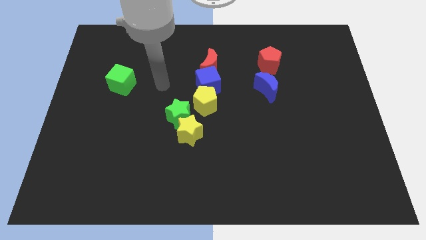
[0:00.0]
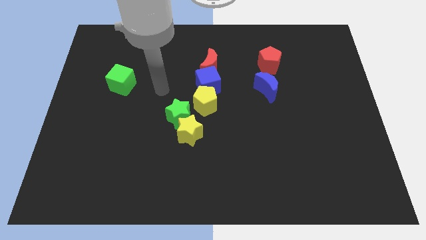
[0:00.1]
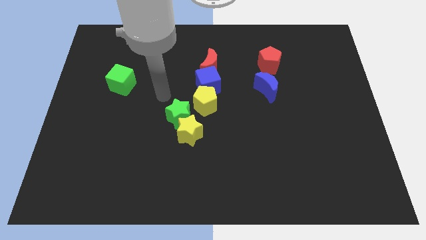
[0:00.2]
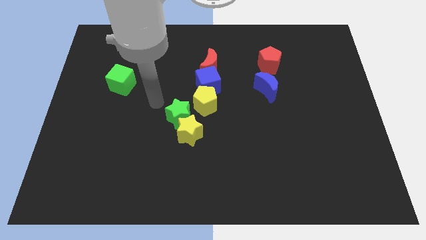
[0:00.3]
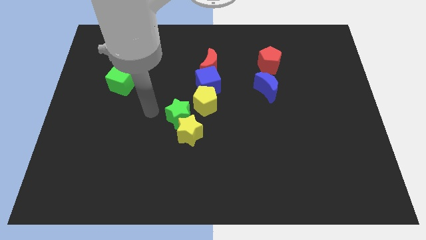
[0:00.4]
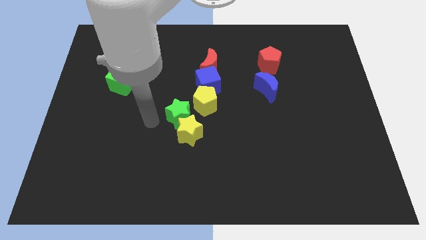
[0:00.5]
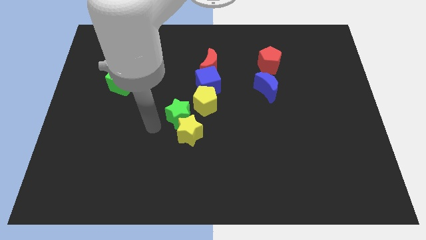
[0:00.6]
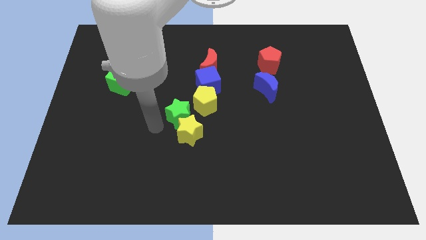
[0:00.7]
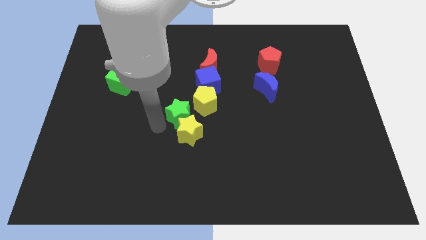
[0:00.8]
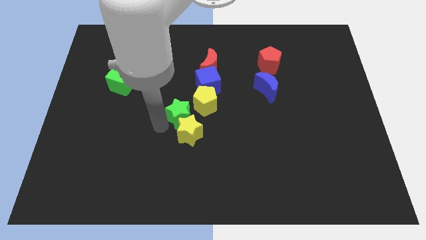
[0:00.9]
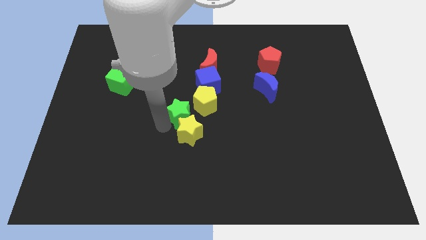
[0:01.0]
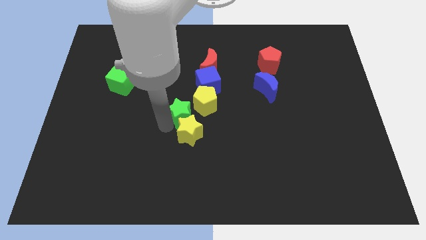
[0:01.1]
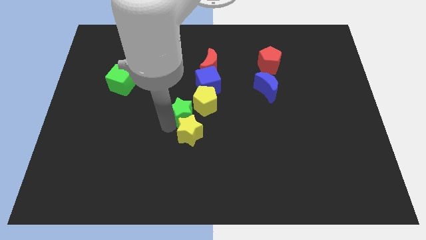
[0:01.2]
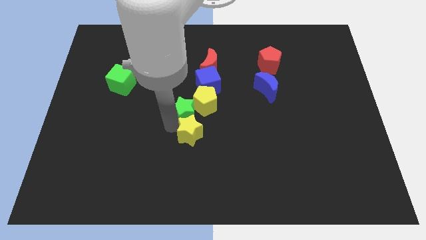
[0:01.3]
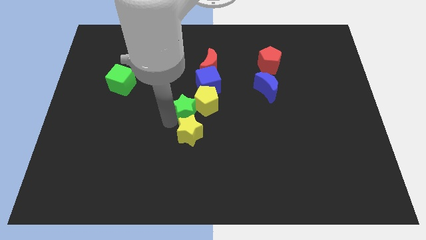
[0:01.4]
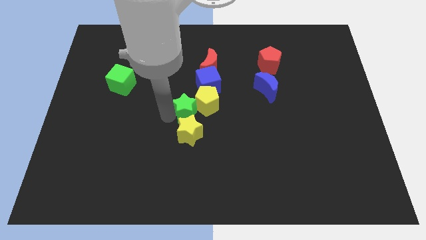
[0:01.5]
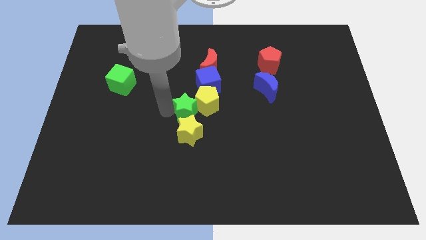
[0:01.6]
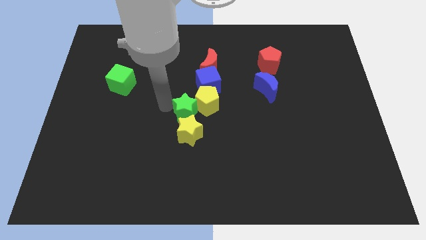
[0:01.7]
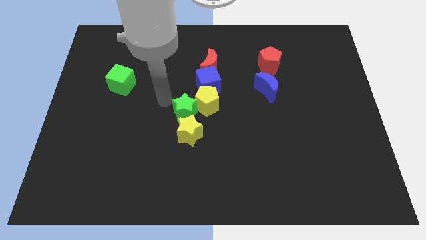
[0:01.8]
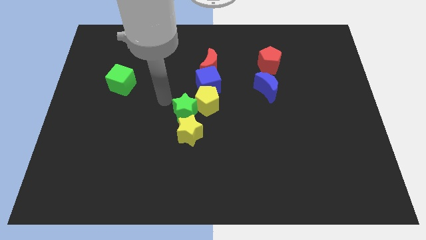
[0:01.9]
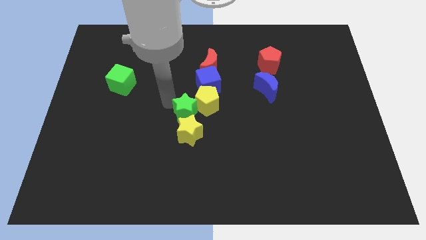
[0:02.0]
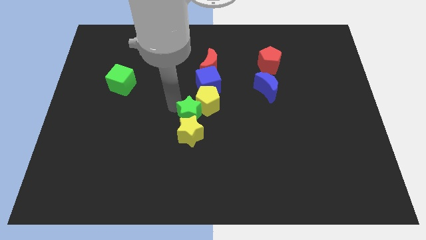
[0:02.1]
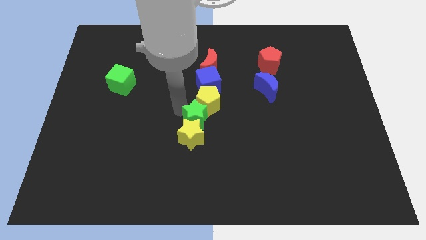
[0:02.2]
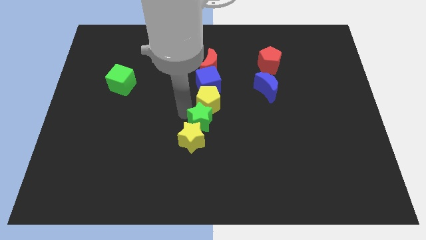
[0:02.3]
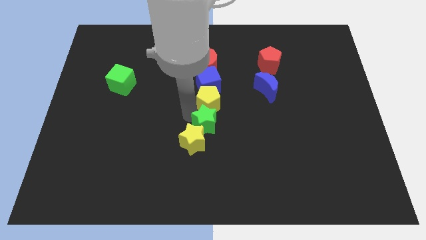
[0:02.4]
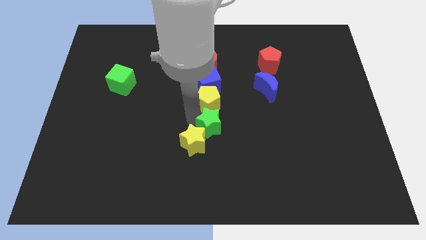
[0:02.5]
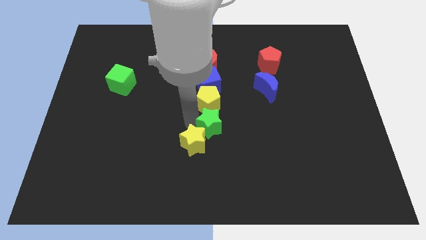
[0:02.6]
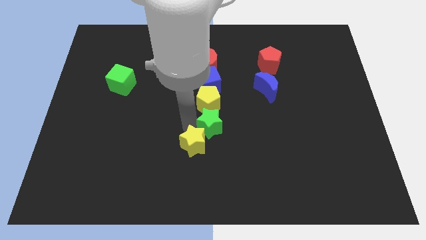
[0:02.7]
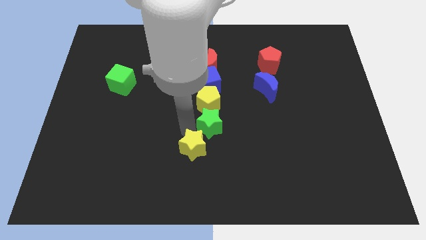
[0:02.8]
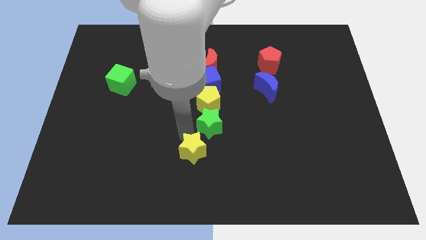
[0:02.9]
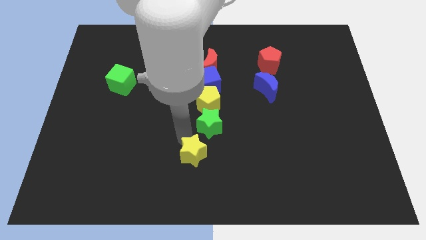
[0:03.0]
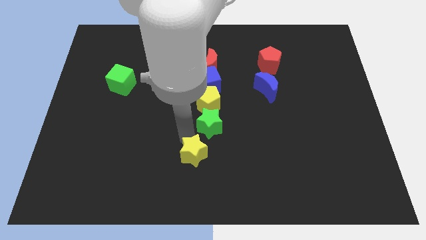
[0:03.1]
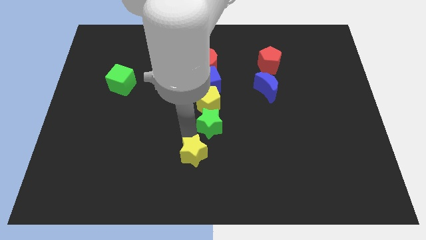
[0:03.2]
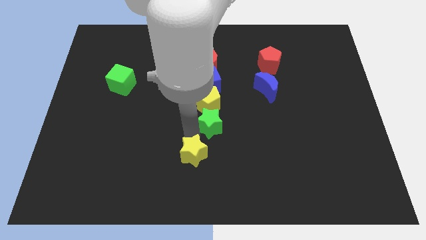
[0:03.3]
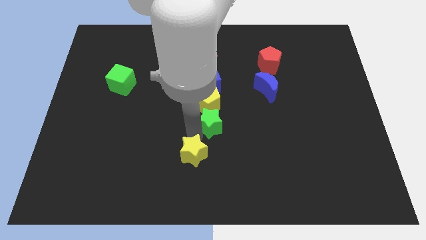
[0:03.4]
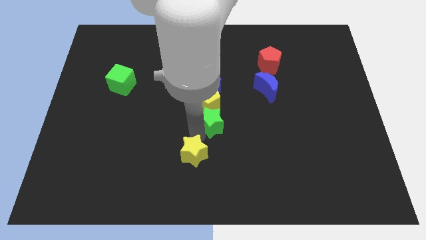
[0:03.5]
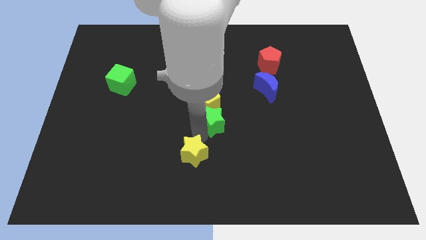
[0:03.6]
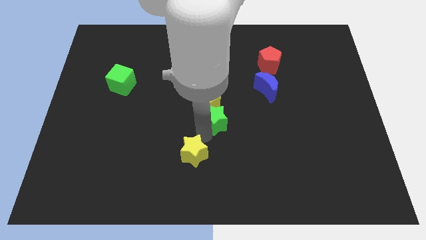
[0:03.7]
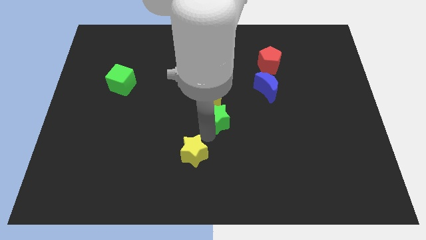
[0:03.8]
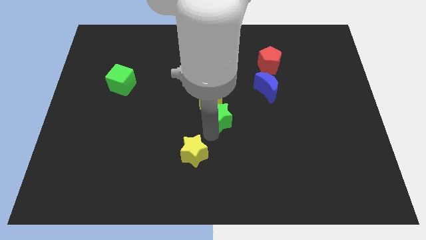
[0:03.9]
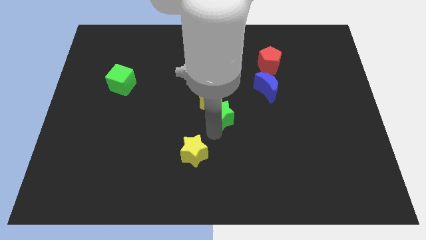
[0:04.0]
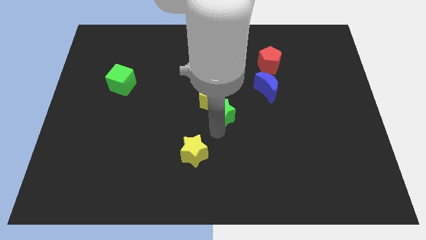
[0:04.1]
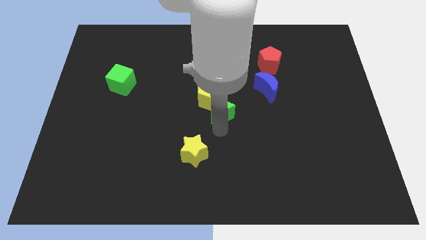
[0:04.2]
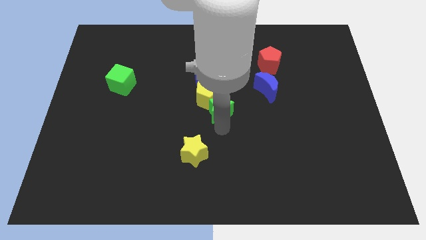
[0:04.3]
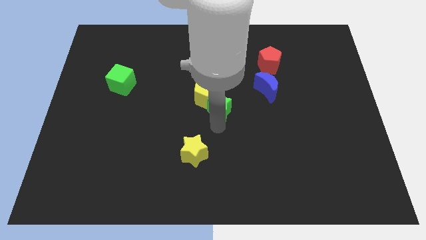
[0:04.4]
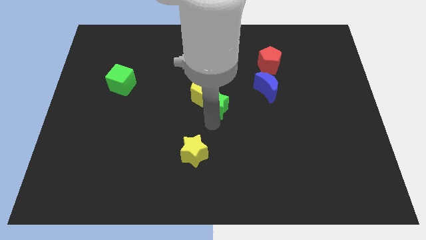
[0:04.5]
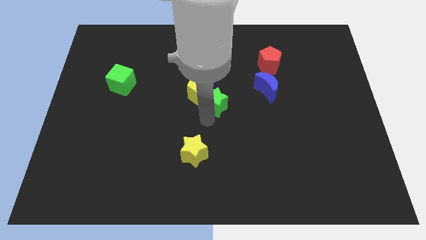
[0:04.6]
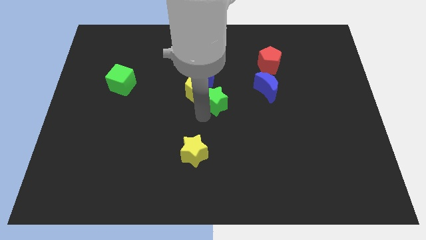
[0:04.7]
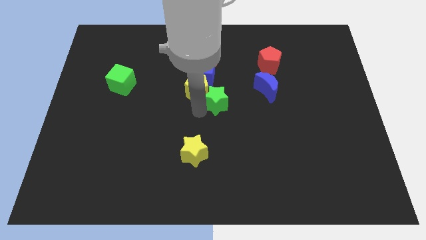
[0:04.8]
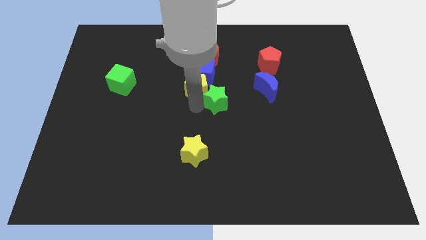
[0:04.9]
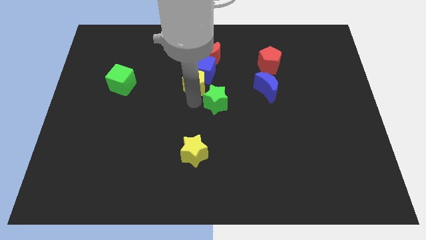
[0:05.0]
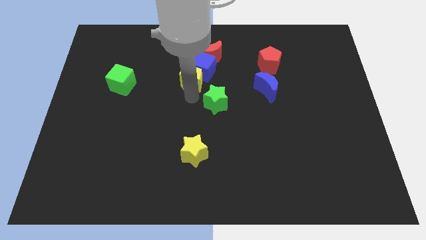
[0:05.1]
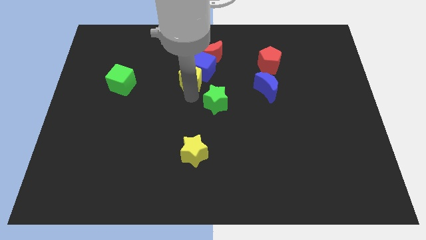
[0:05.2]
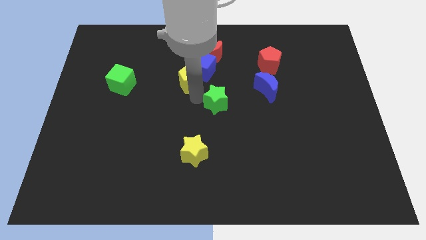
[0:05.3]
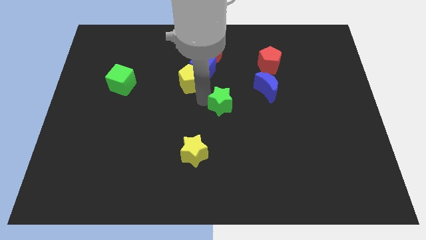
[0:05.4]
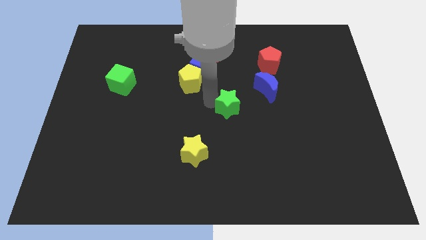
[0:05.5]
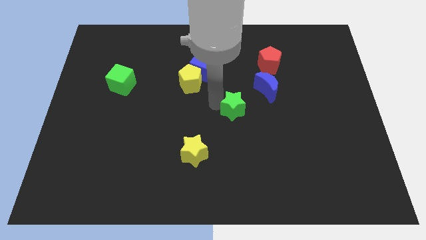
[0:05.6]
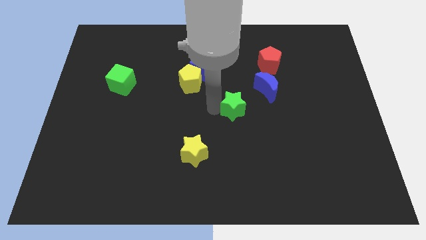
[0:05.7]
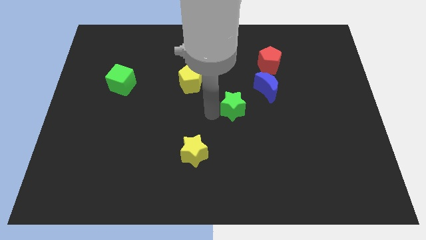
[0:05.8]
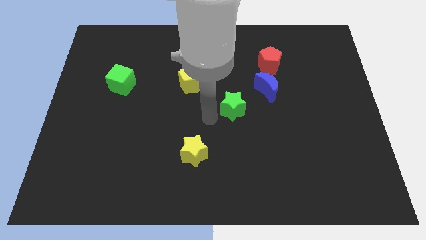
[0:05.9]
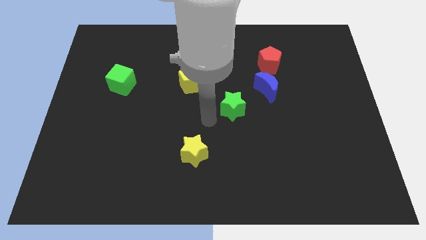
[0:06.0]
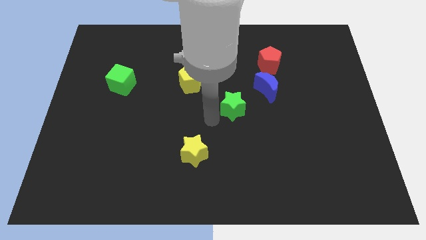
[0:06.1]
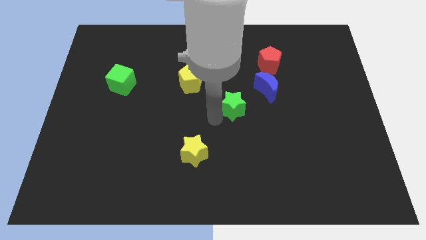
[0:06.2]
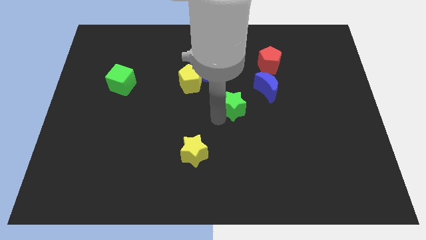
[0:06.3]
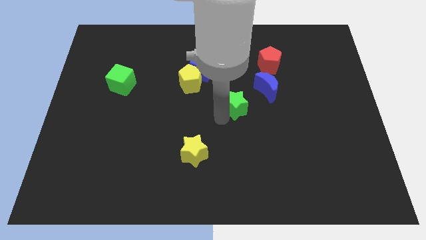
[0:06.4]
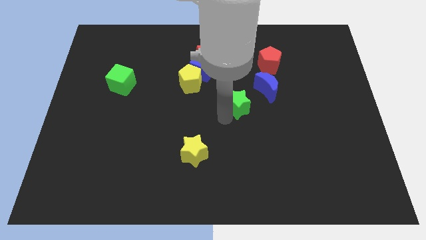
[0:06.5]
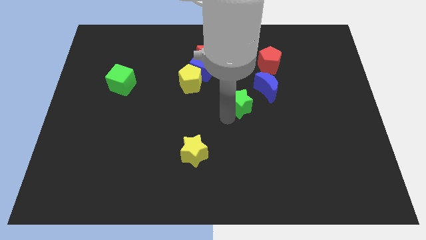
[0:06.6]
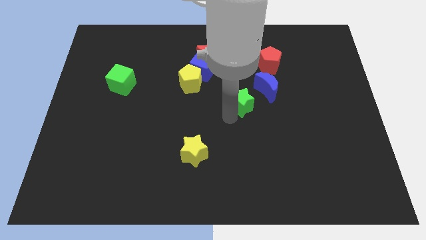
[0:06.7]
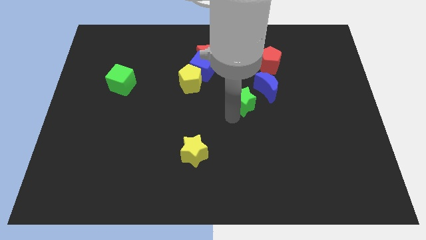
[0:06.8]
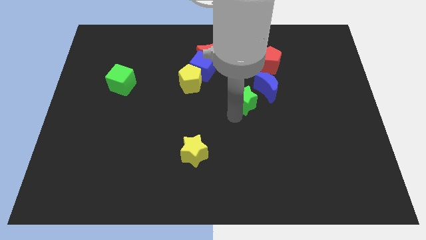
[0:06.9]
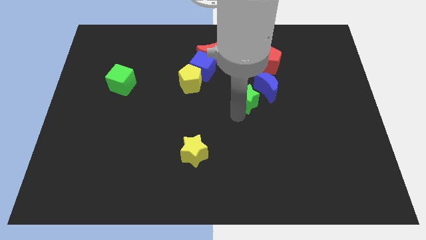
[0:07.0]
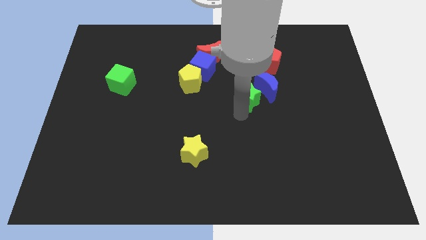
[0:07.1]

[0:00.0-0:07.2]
push the green star to the blue moon
